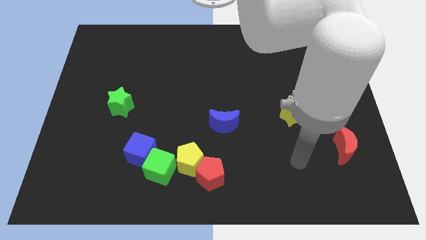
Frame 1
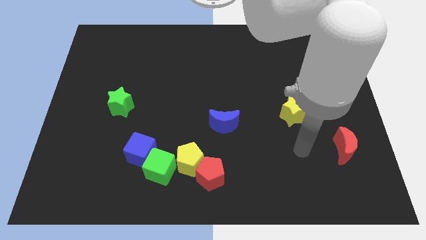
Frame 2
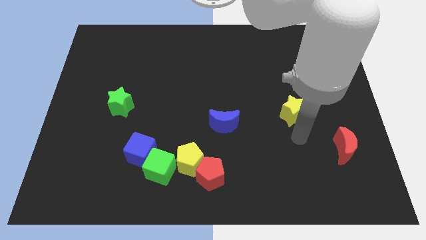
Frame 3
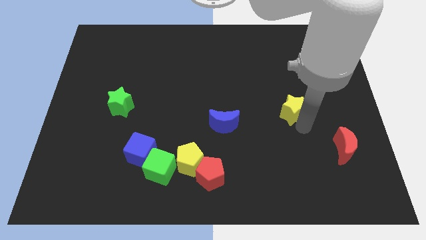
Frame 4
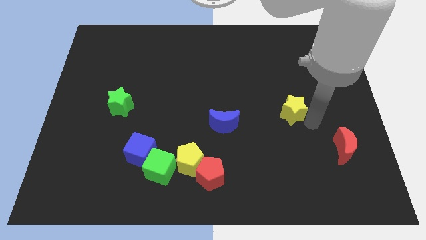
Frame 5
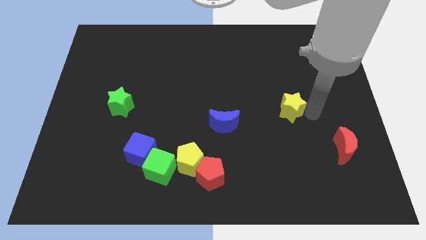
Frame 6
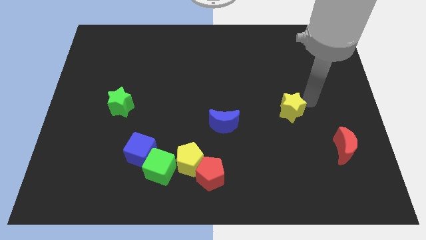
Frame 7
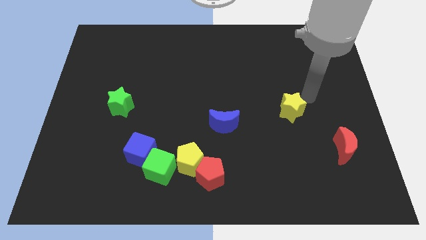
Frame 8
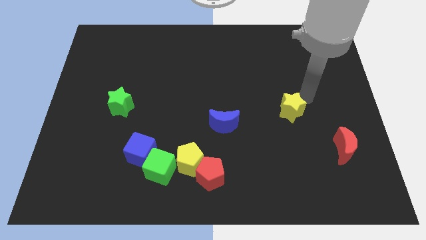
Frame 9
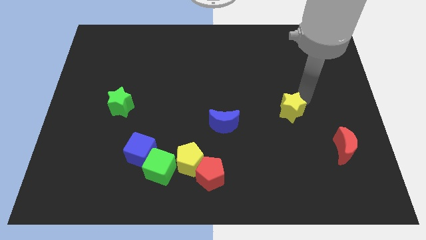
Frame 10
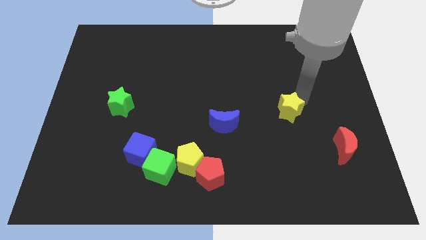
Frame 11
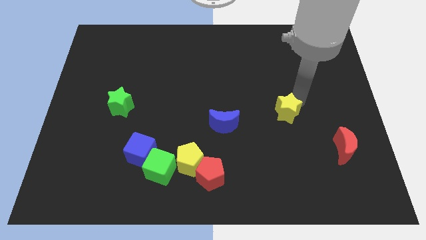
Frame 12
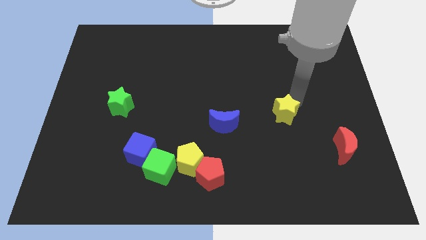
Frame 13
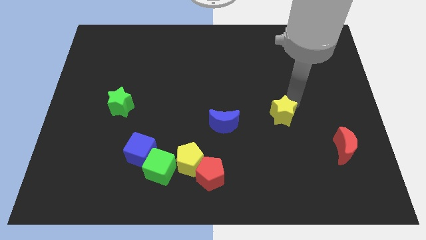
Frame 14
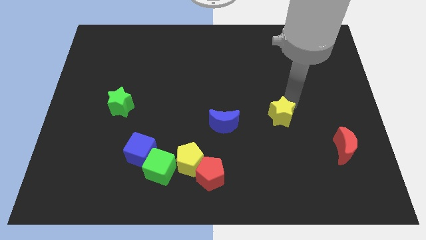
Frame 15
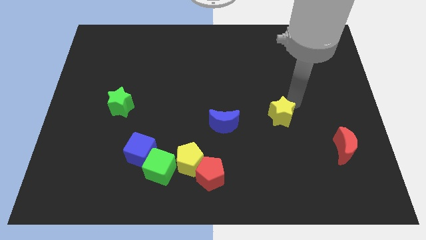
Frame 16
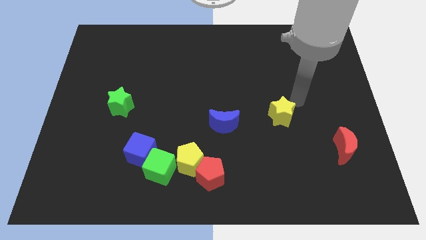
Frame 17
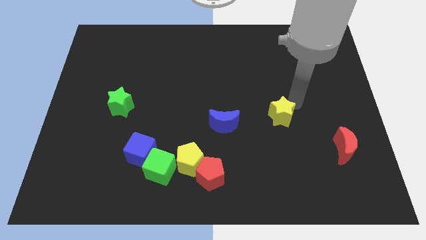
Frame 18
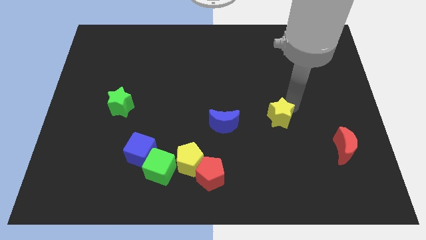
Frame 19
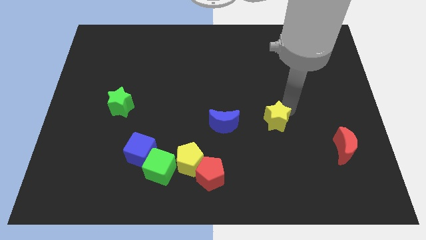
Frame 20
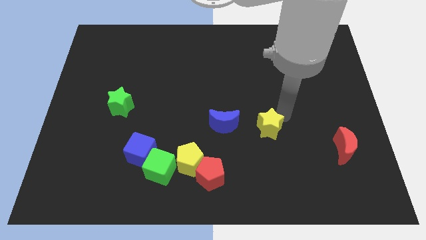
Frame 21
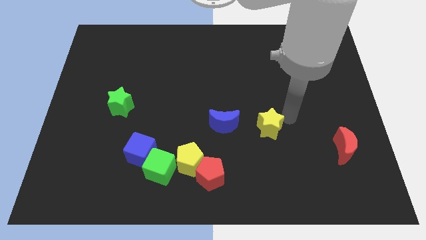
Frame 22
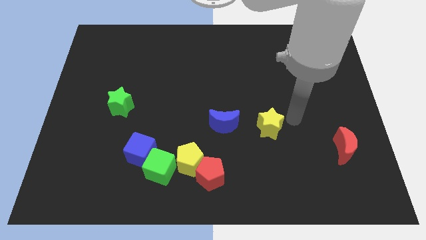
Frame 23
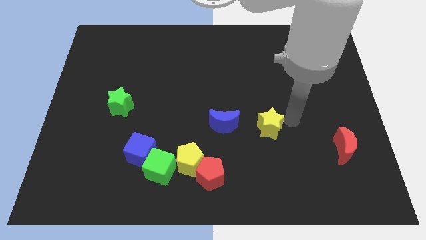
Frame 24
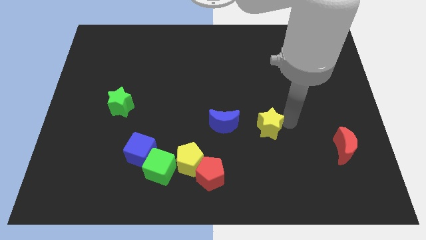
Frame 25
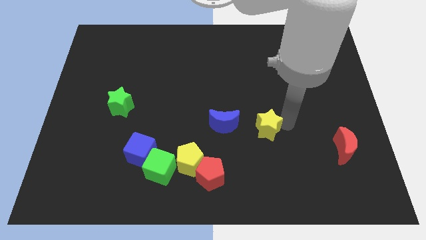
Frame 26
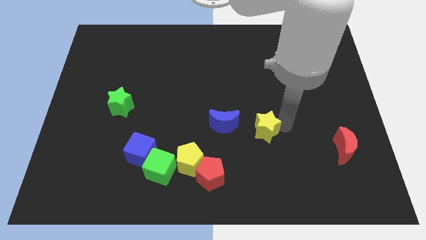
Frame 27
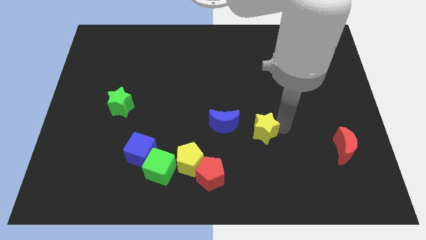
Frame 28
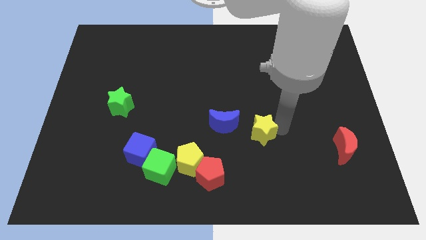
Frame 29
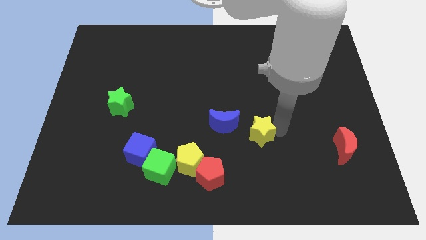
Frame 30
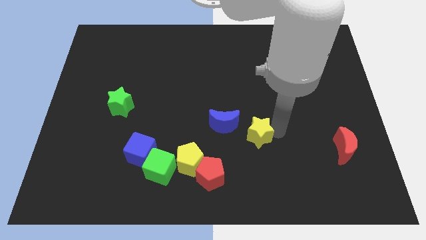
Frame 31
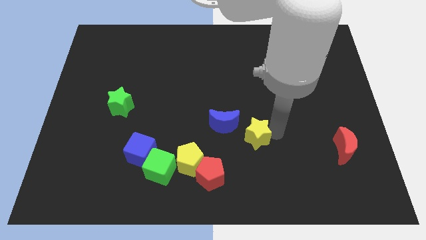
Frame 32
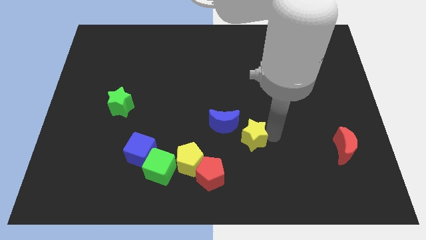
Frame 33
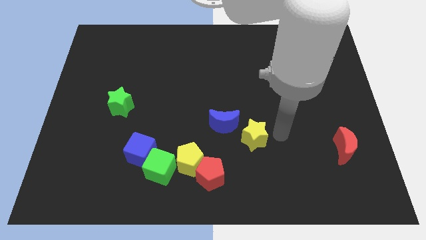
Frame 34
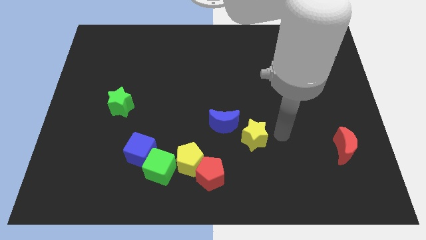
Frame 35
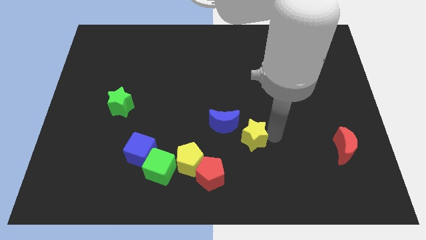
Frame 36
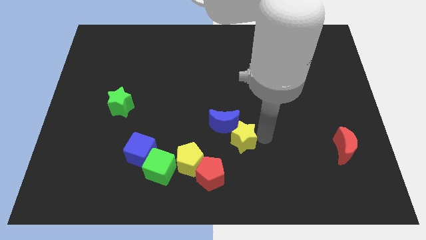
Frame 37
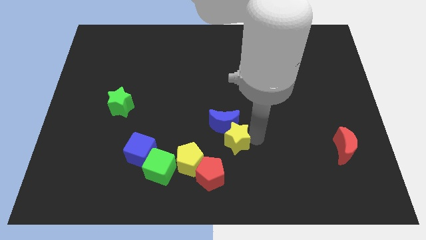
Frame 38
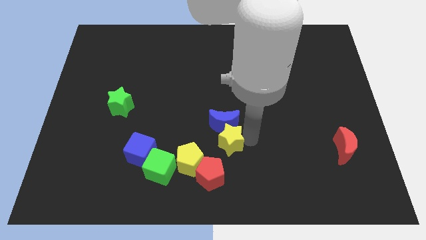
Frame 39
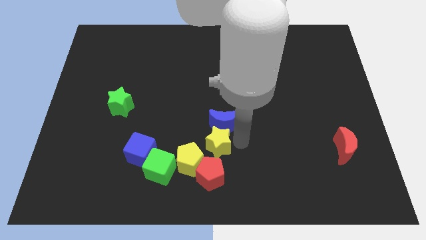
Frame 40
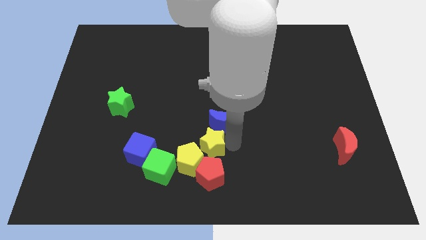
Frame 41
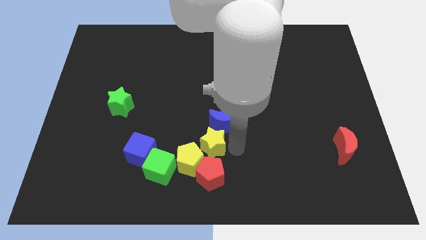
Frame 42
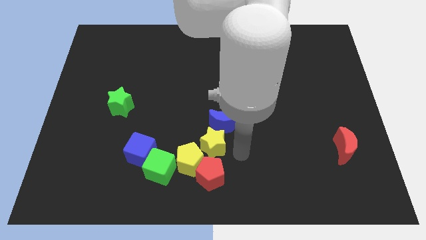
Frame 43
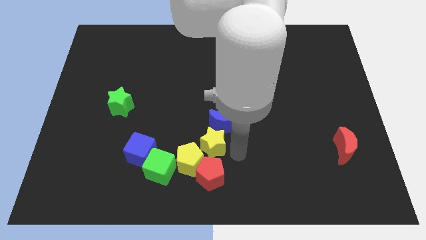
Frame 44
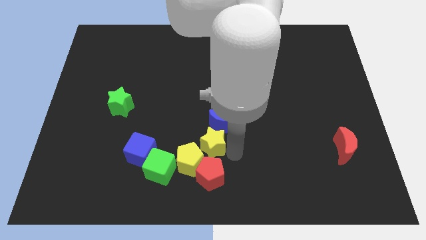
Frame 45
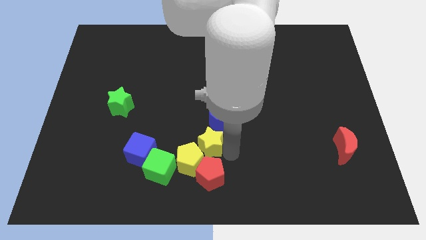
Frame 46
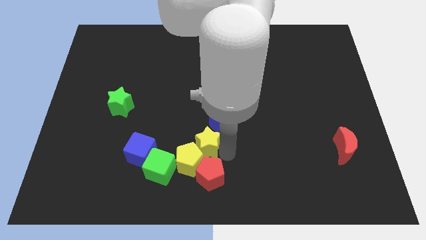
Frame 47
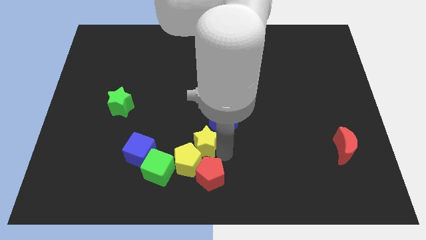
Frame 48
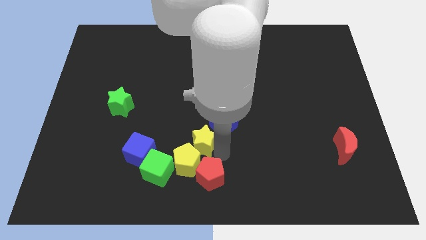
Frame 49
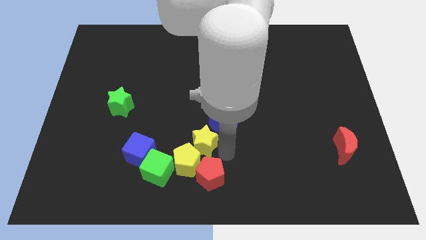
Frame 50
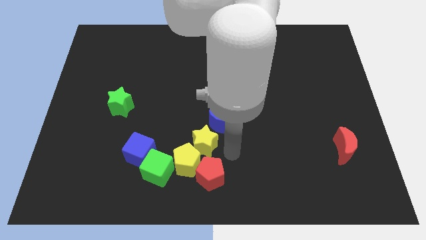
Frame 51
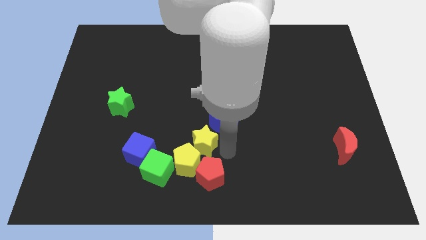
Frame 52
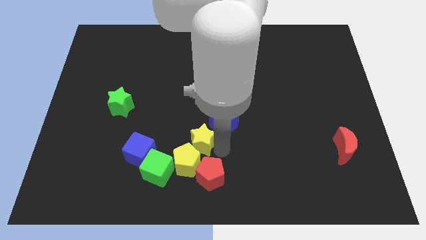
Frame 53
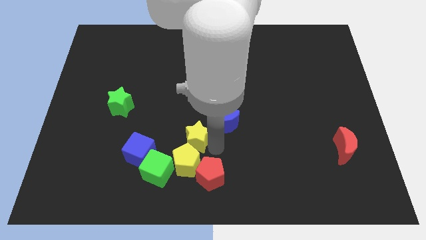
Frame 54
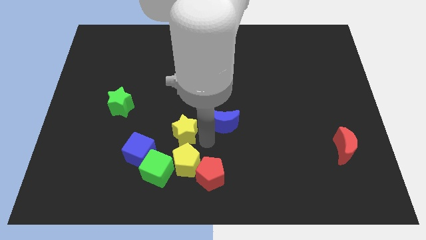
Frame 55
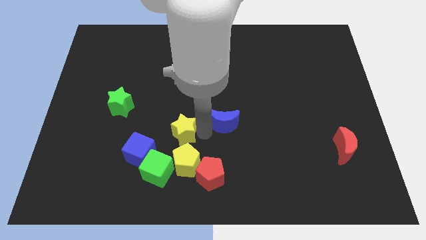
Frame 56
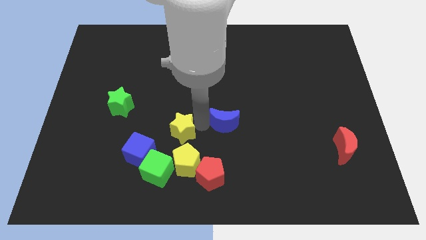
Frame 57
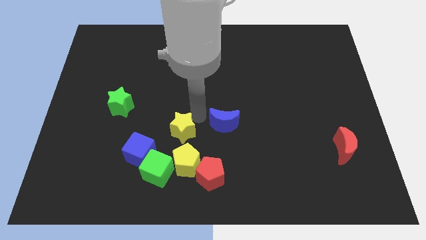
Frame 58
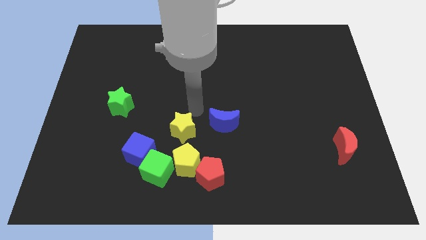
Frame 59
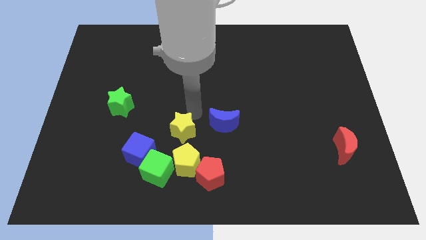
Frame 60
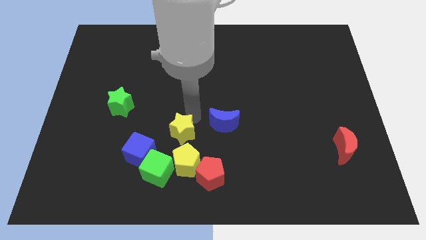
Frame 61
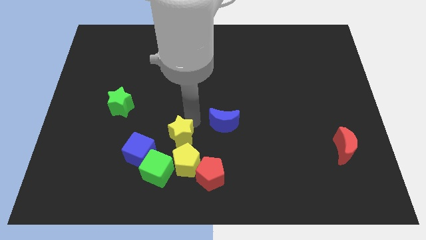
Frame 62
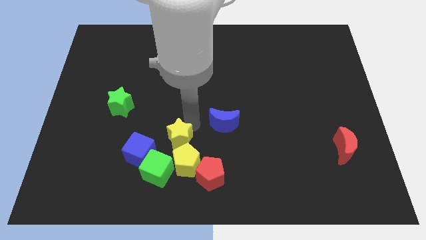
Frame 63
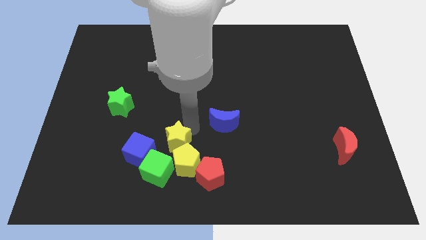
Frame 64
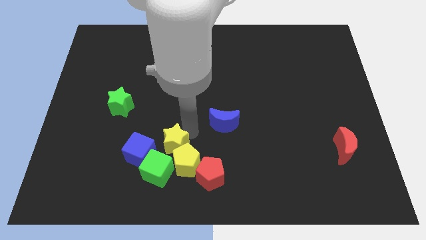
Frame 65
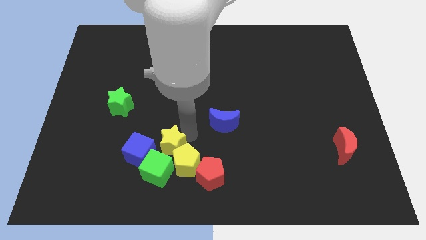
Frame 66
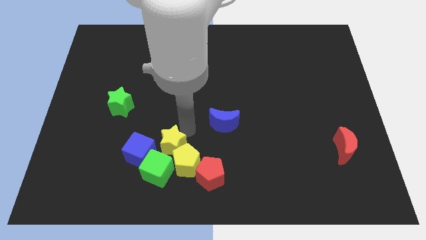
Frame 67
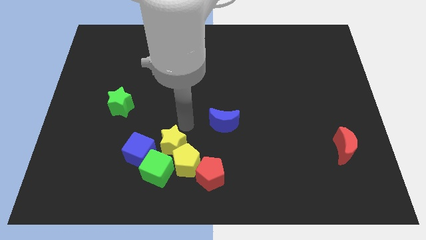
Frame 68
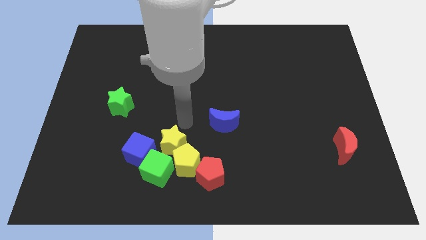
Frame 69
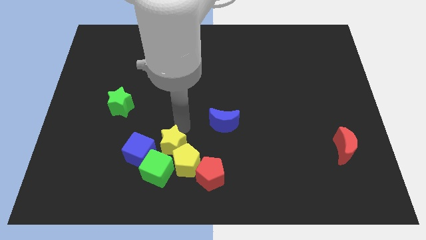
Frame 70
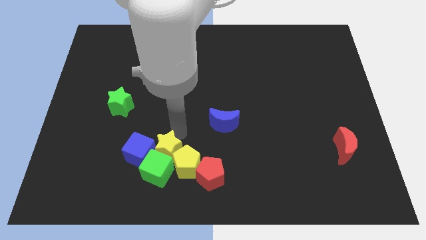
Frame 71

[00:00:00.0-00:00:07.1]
slide the yellow star towards the green cube
